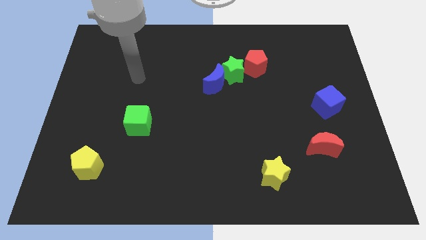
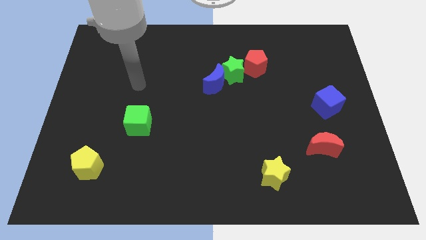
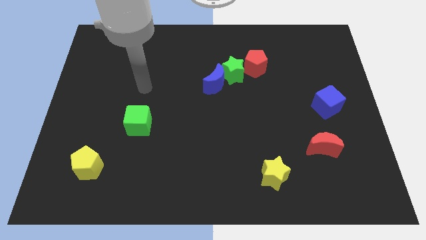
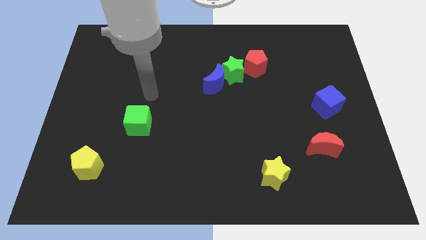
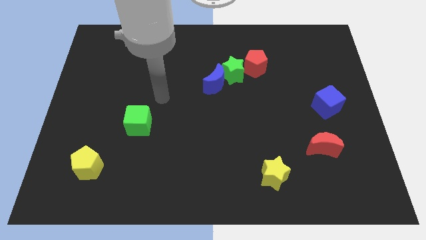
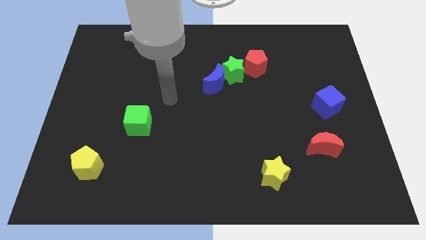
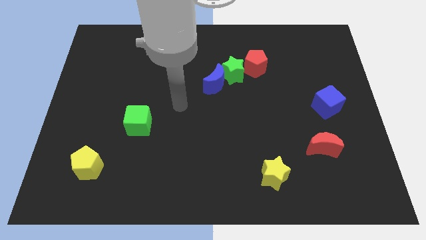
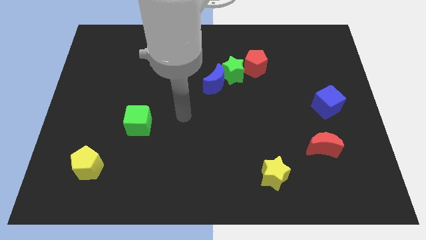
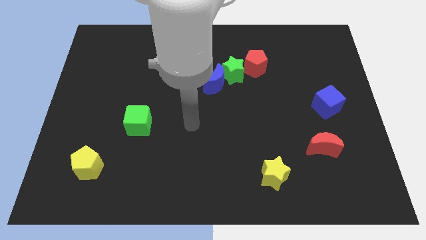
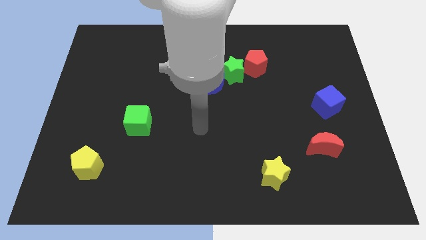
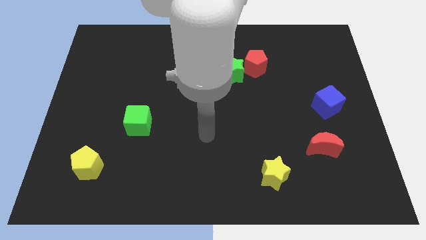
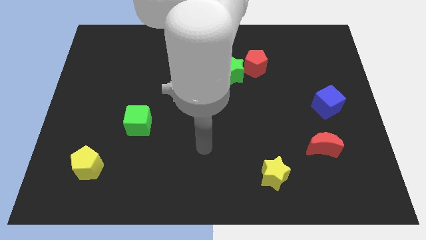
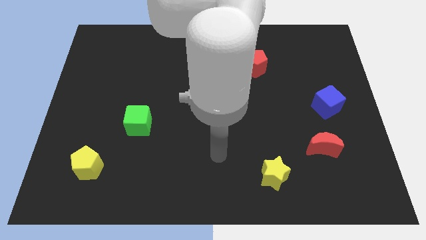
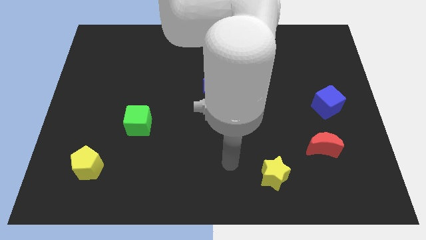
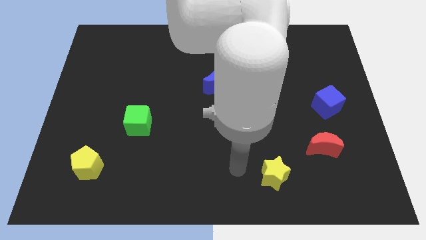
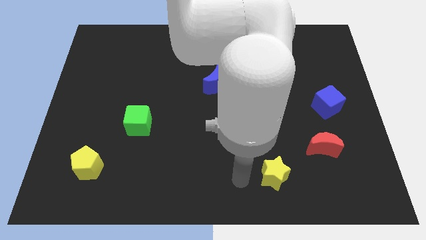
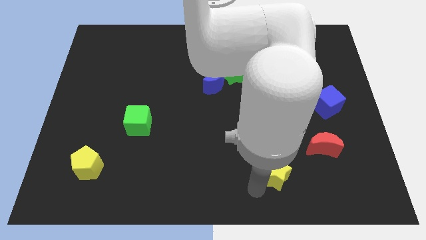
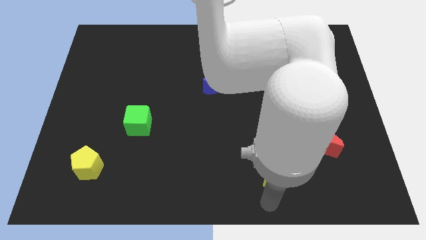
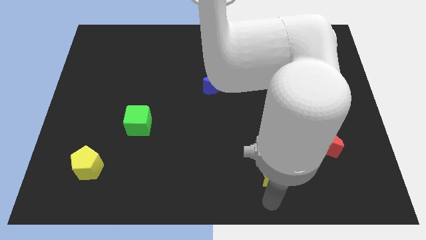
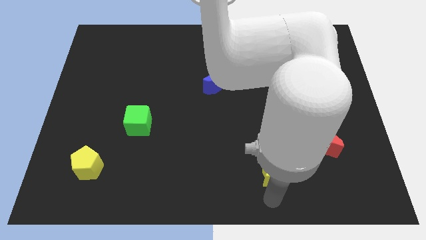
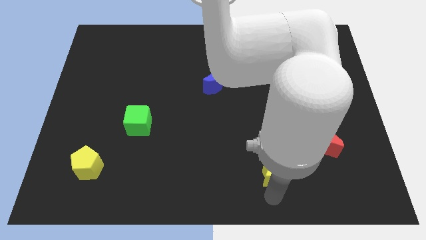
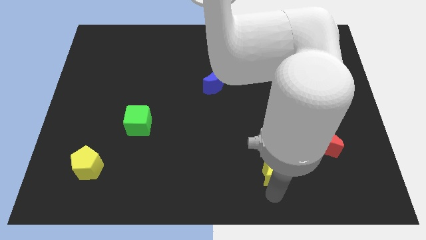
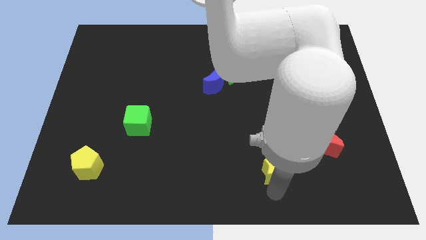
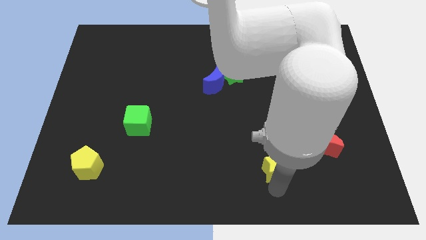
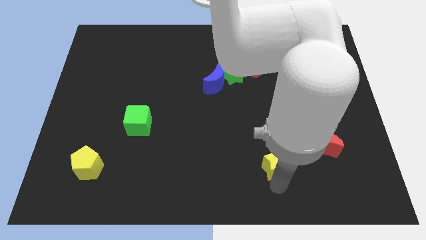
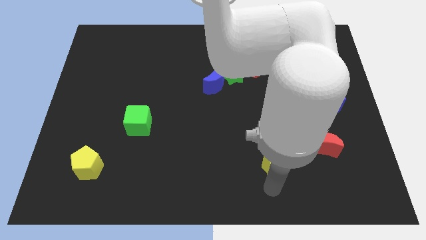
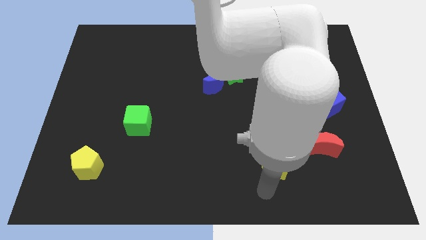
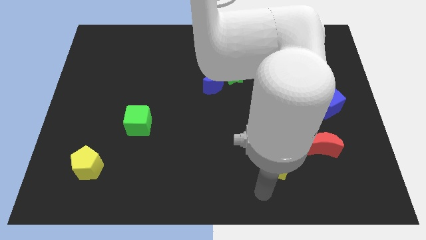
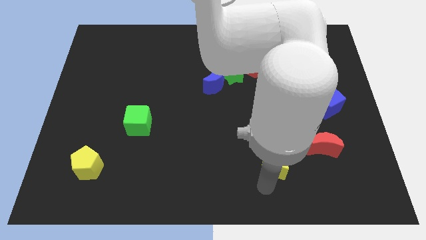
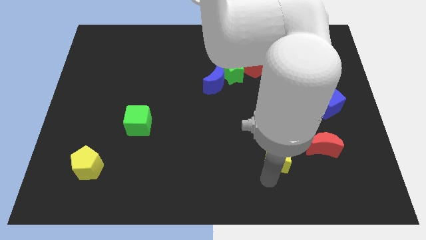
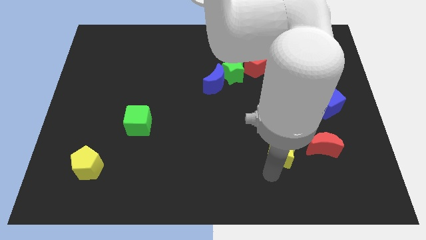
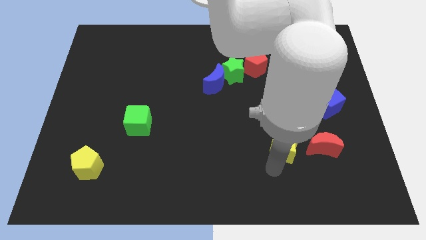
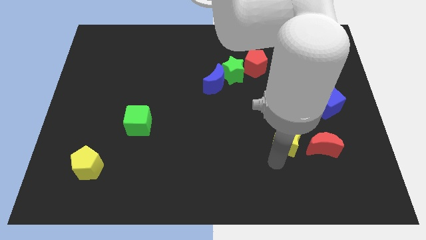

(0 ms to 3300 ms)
slide the yellow star a little bit up and then right

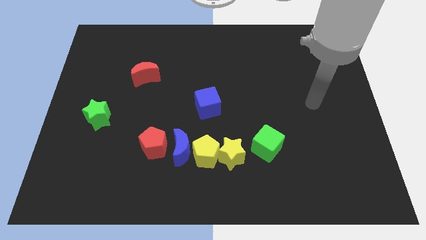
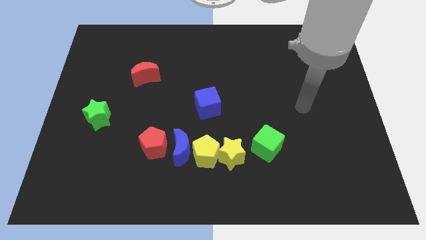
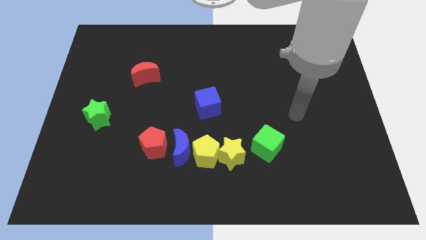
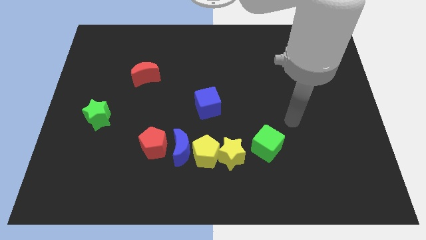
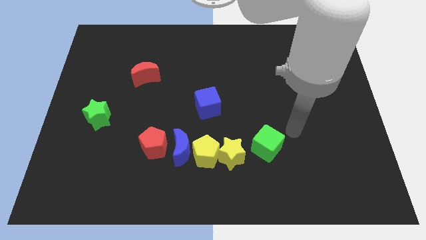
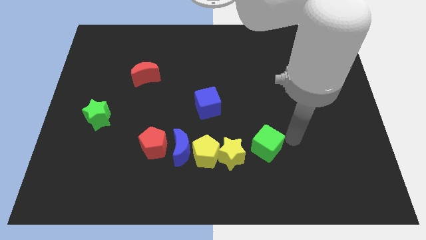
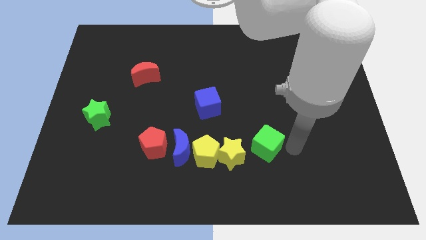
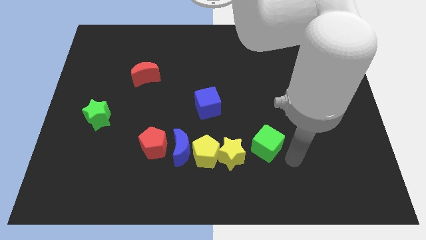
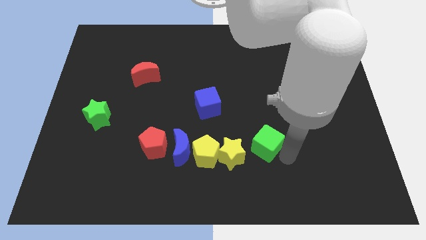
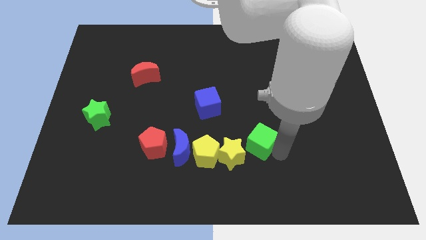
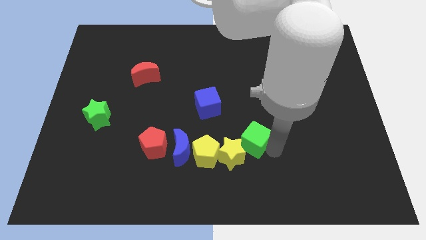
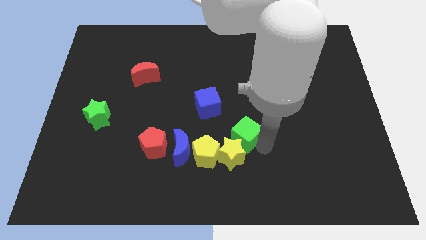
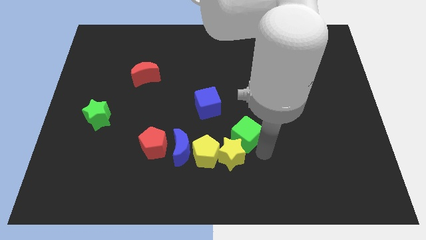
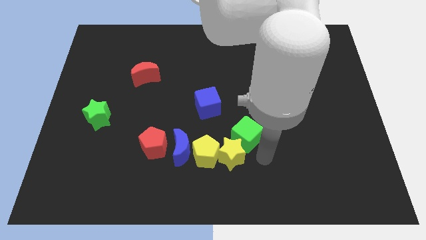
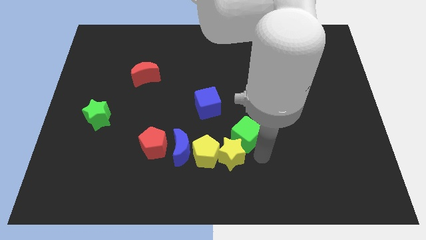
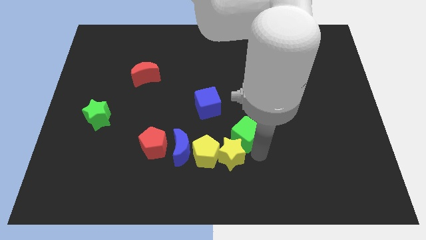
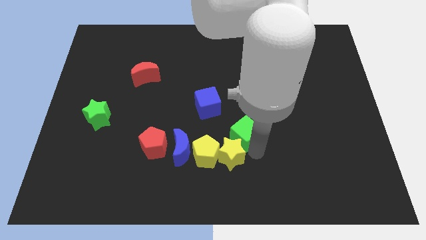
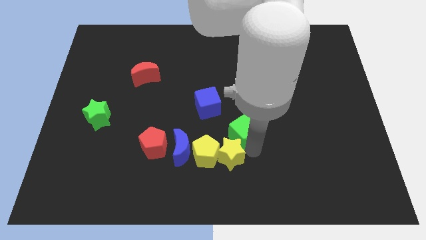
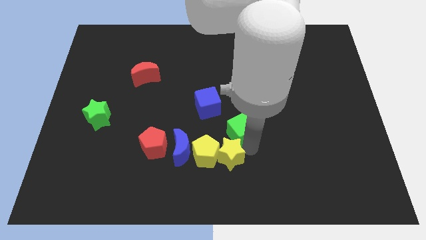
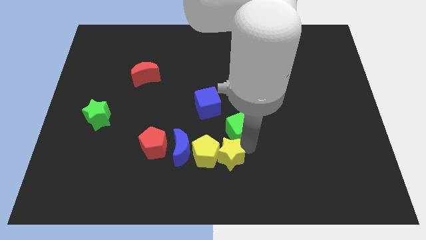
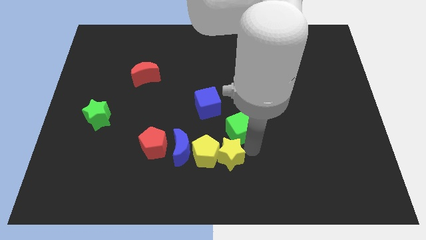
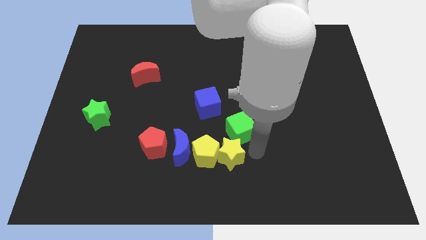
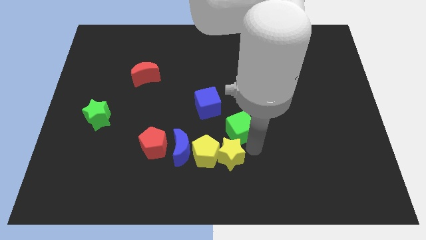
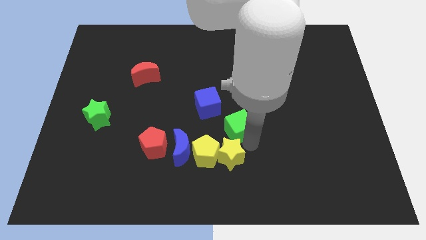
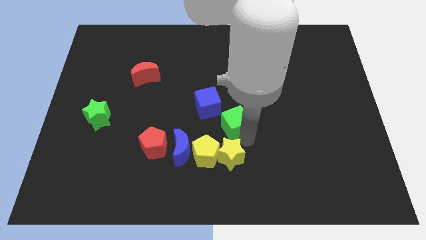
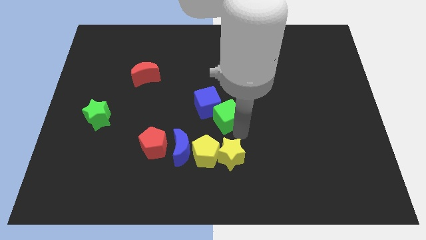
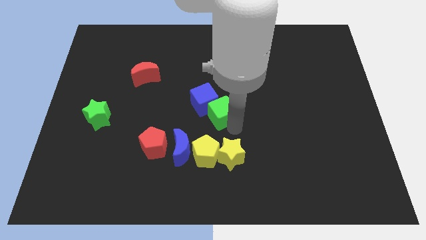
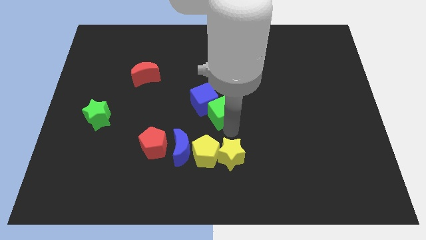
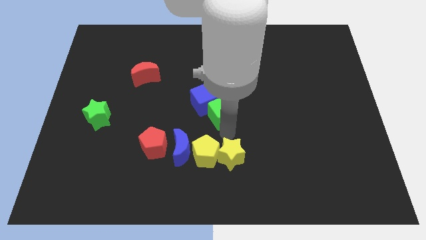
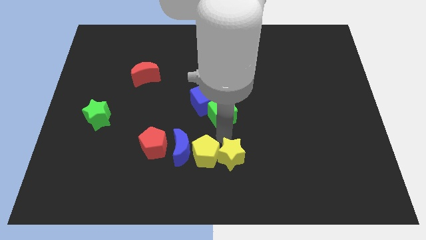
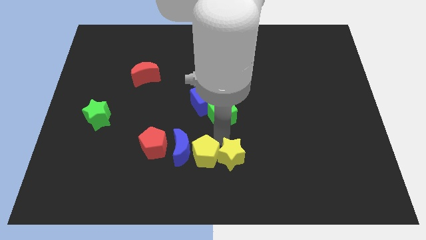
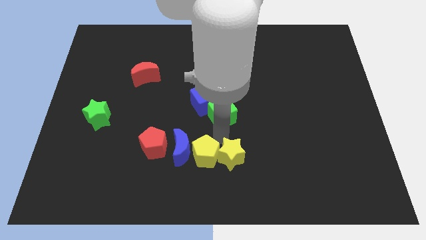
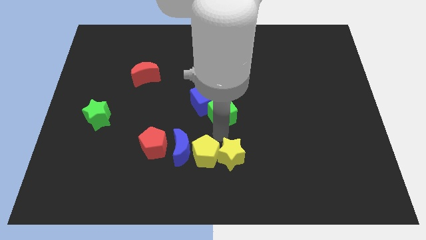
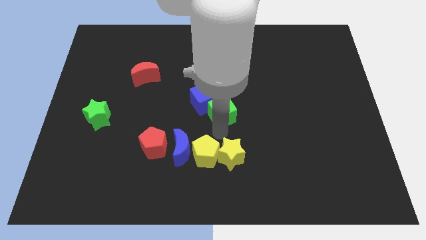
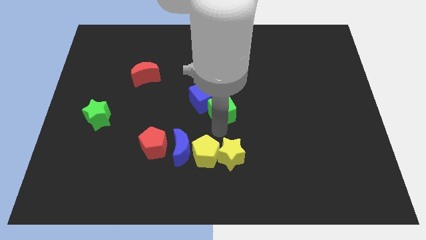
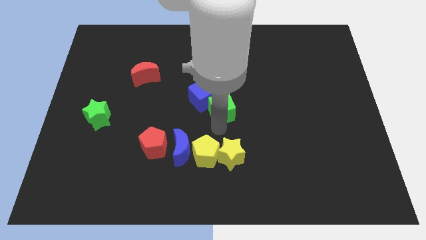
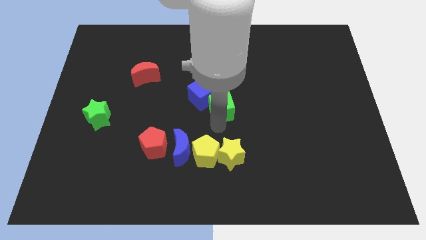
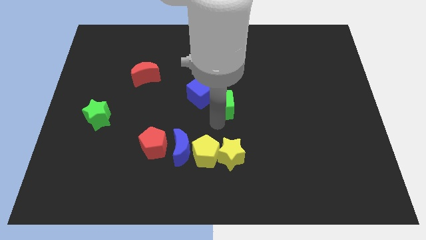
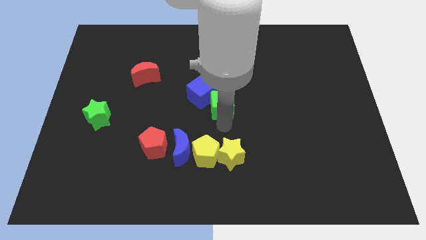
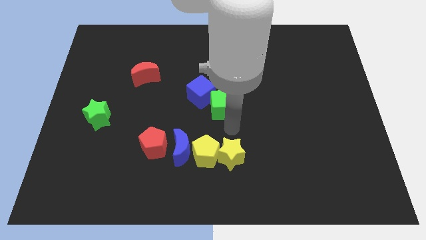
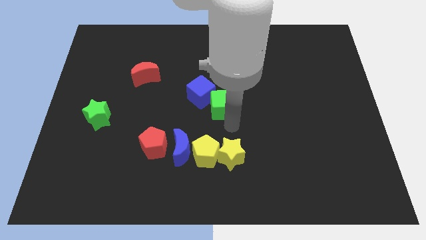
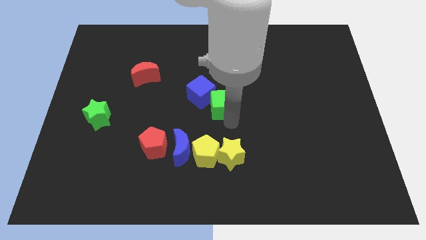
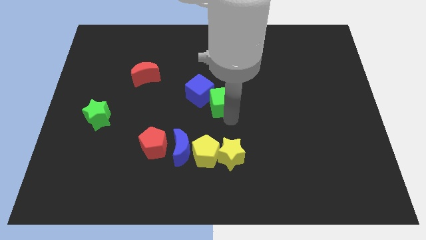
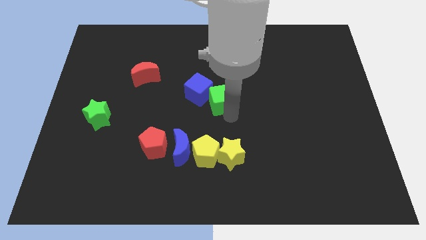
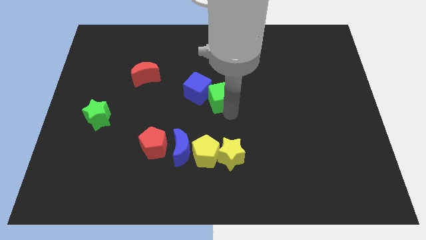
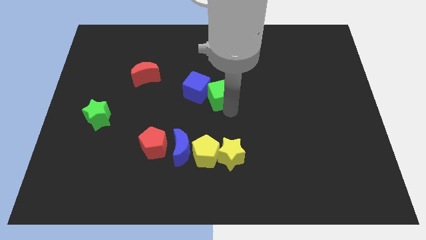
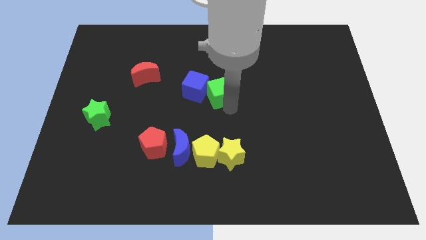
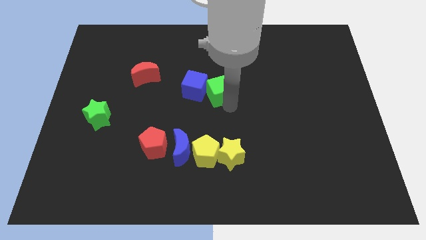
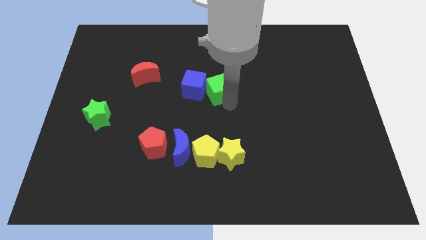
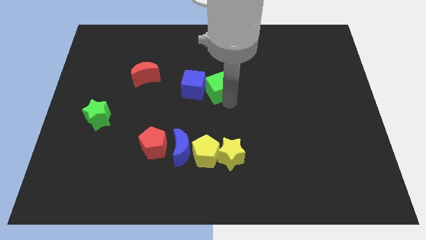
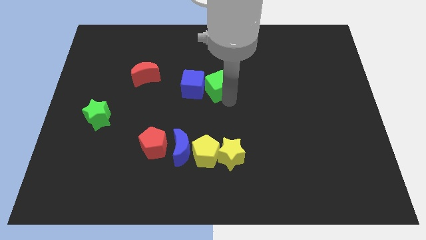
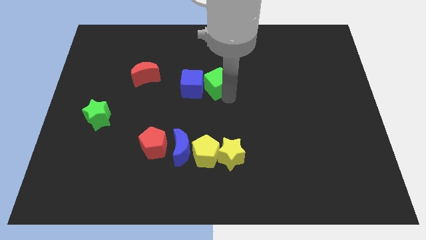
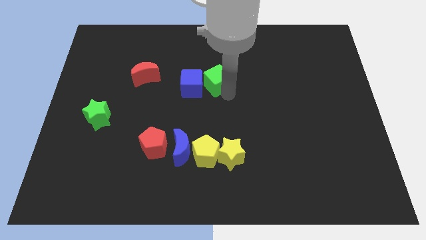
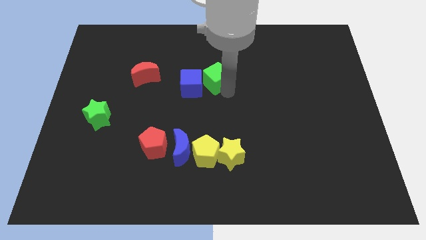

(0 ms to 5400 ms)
slide the green cube up and to the left
